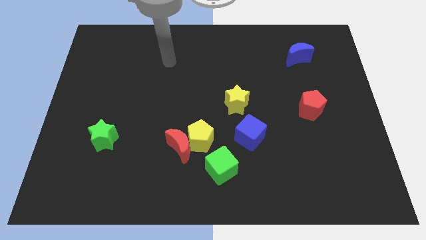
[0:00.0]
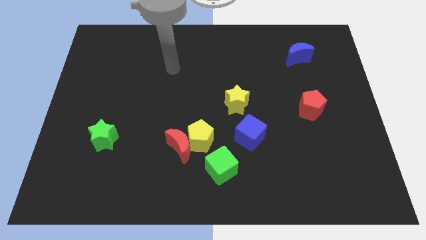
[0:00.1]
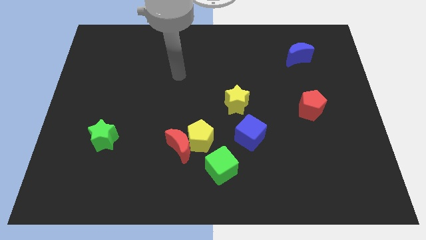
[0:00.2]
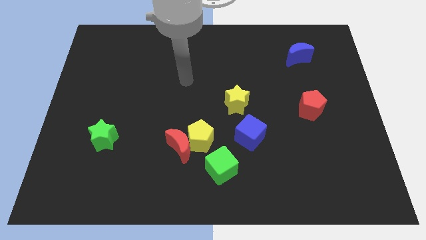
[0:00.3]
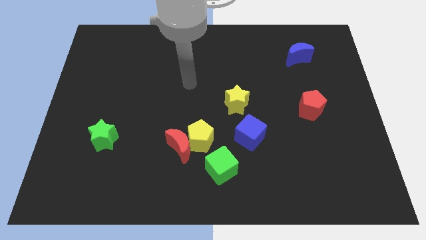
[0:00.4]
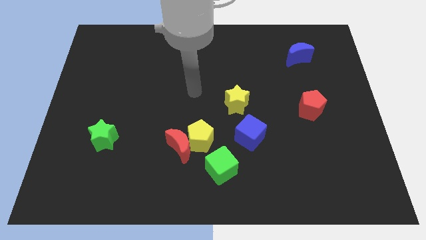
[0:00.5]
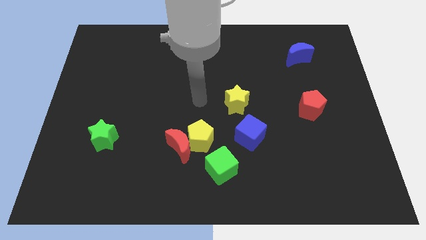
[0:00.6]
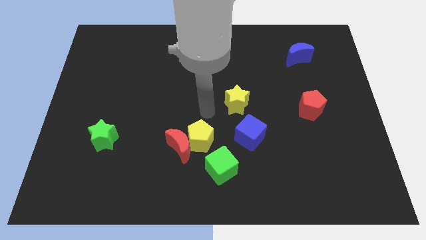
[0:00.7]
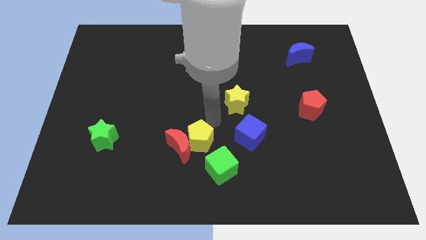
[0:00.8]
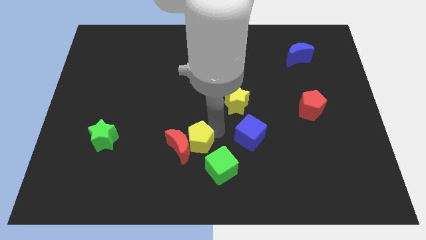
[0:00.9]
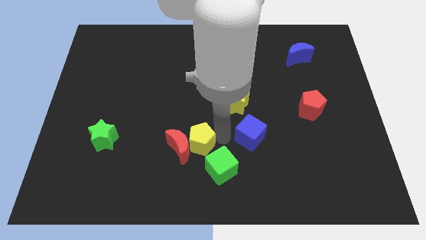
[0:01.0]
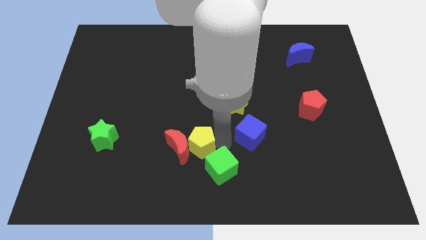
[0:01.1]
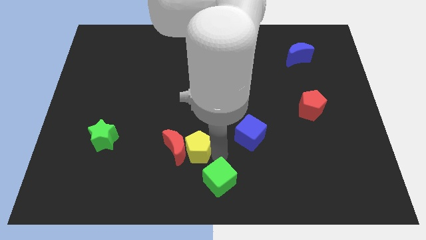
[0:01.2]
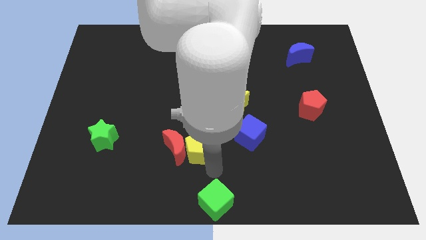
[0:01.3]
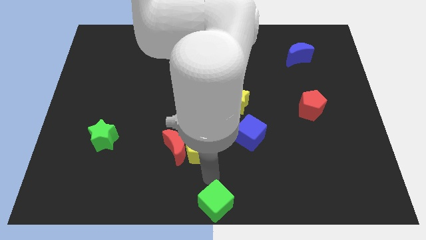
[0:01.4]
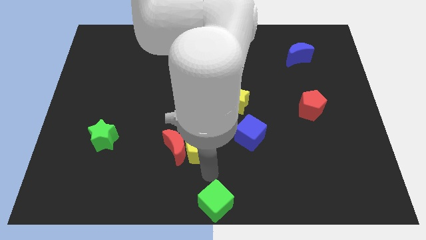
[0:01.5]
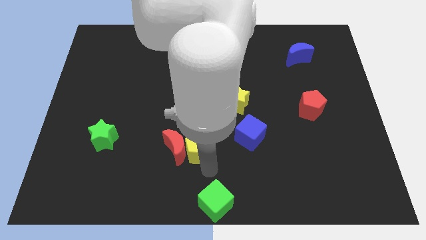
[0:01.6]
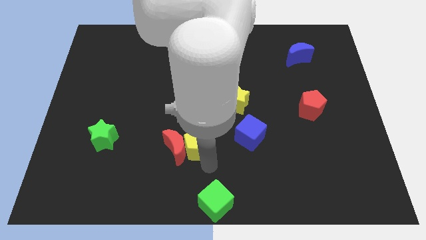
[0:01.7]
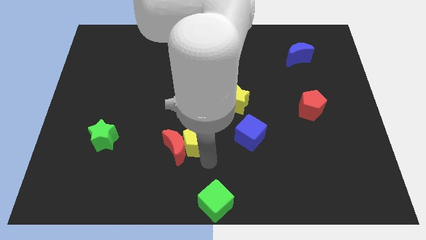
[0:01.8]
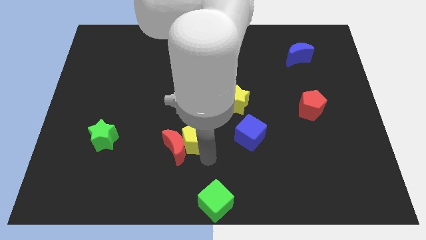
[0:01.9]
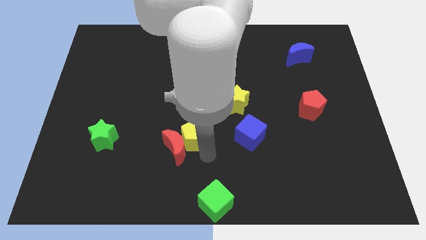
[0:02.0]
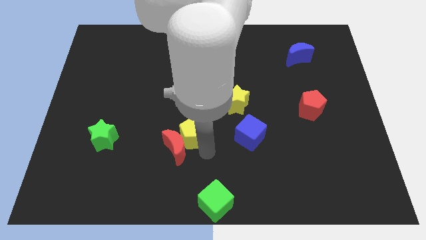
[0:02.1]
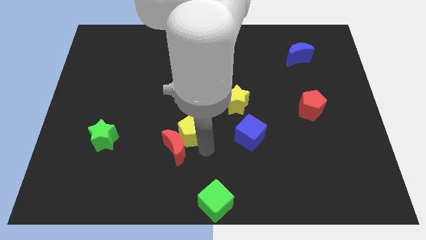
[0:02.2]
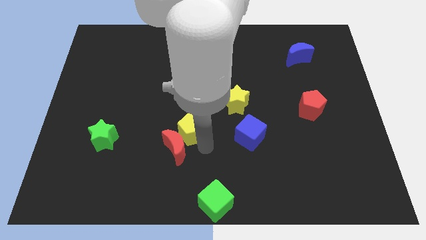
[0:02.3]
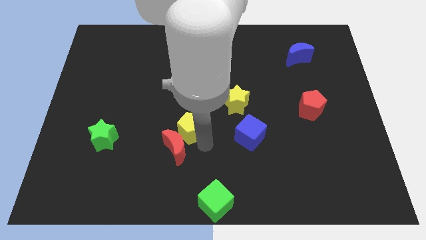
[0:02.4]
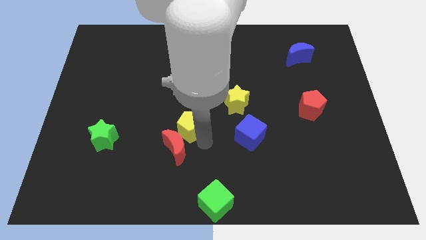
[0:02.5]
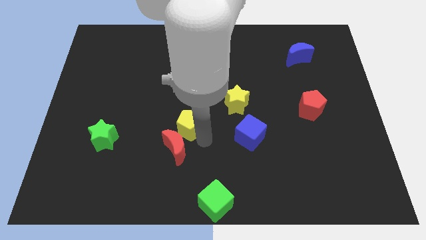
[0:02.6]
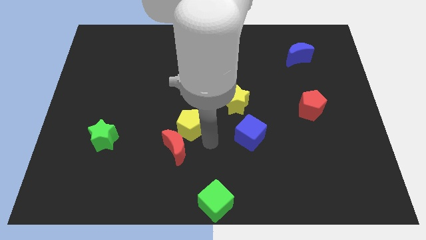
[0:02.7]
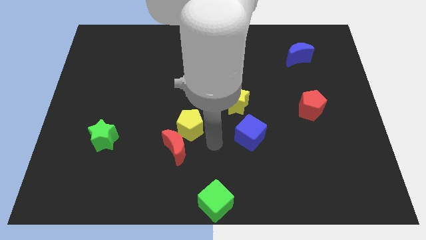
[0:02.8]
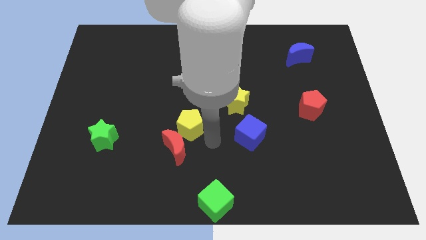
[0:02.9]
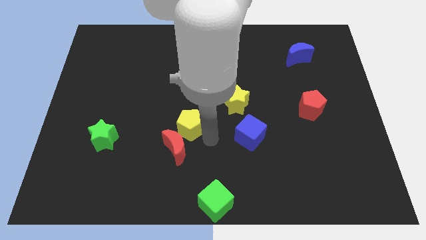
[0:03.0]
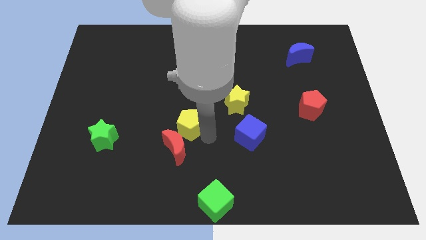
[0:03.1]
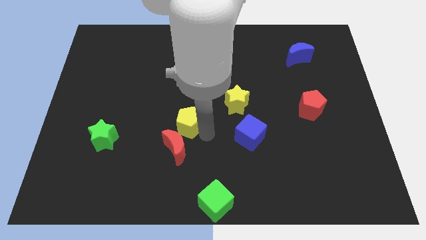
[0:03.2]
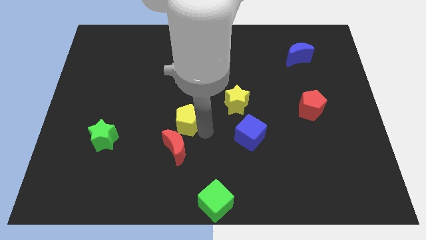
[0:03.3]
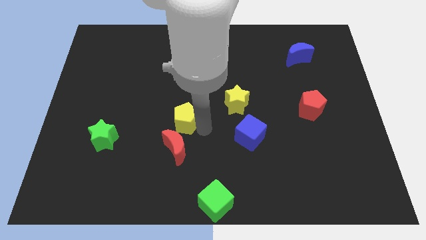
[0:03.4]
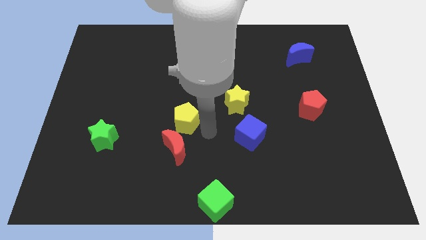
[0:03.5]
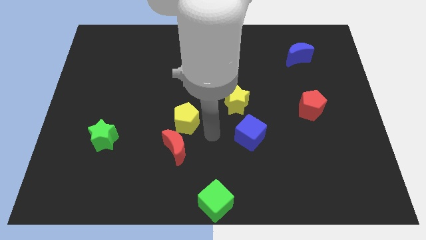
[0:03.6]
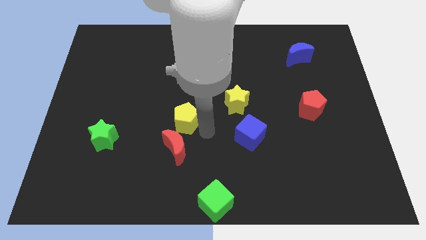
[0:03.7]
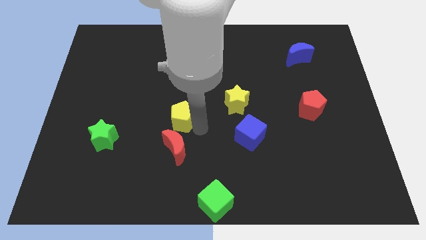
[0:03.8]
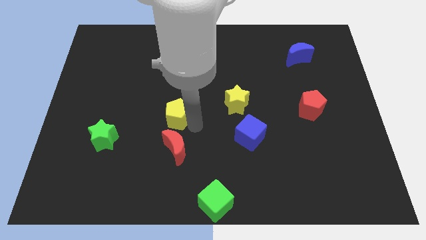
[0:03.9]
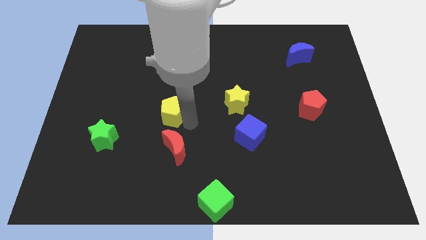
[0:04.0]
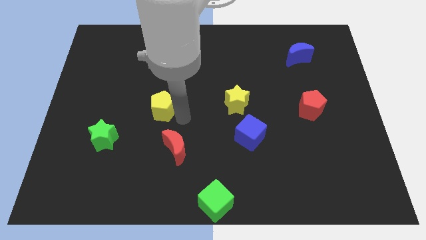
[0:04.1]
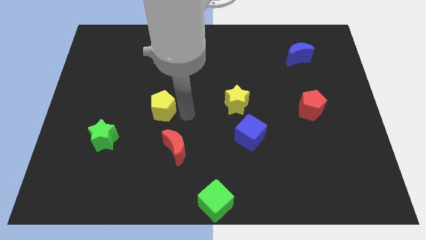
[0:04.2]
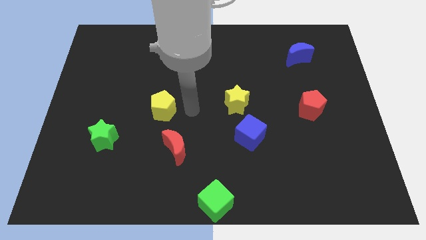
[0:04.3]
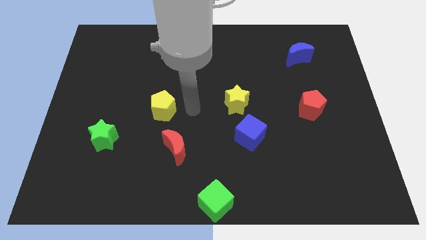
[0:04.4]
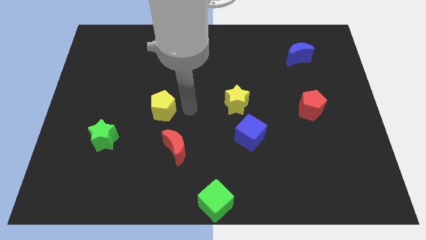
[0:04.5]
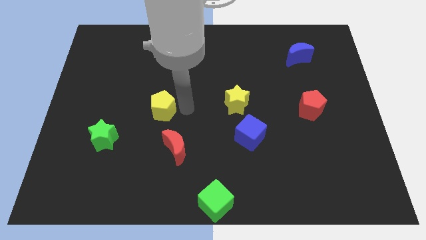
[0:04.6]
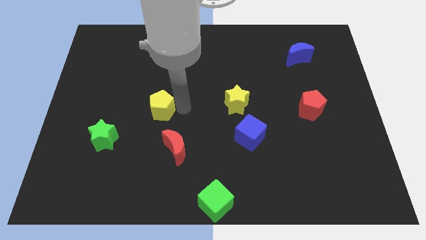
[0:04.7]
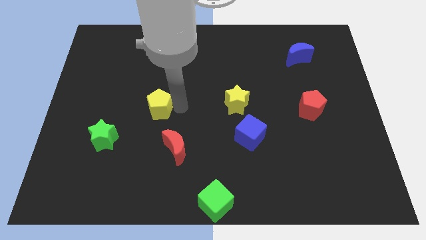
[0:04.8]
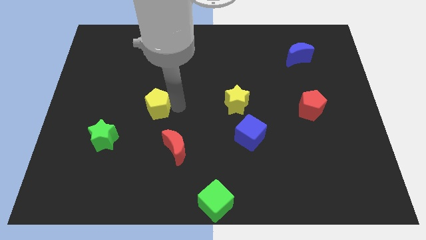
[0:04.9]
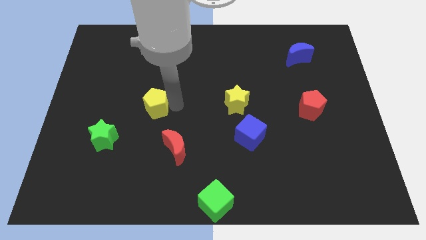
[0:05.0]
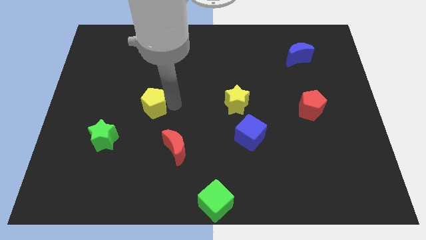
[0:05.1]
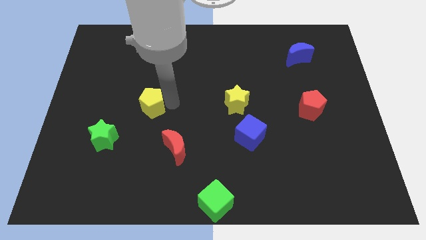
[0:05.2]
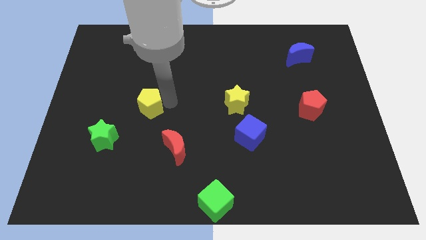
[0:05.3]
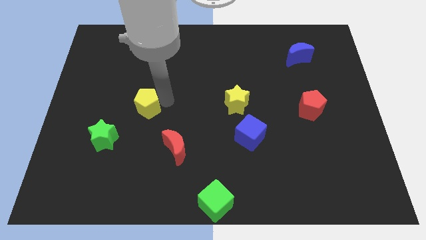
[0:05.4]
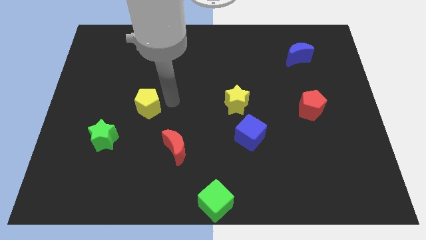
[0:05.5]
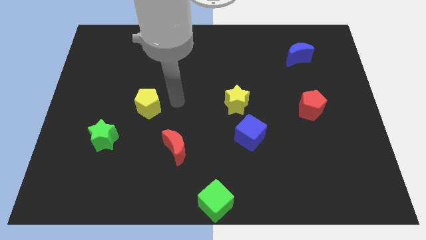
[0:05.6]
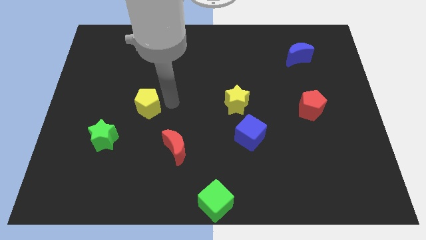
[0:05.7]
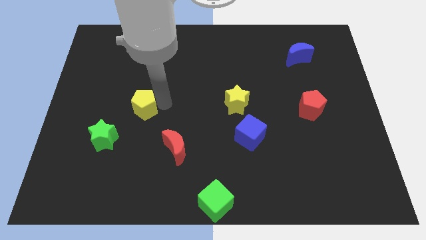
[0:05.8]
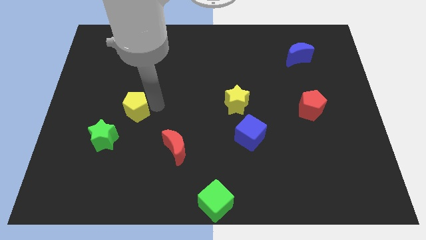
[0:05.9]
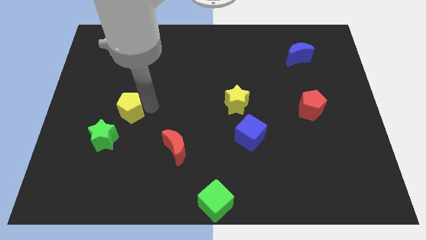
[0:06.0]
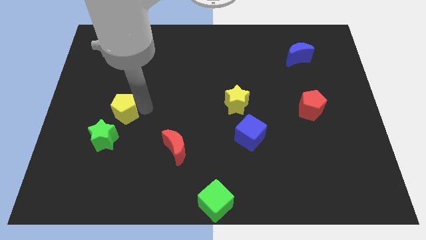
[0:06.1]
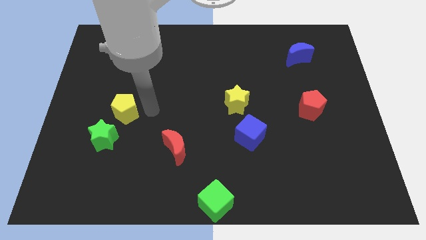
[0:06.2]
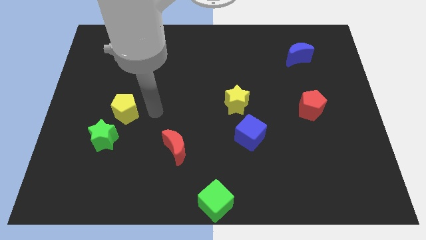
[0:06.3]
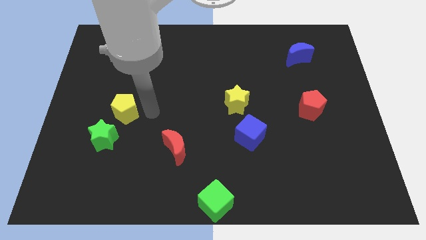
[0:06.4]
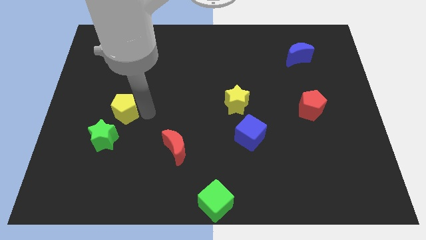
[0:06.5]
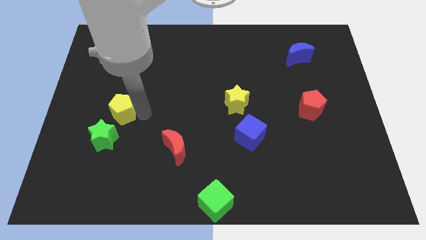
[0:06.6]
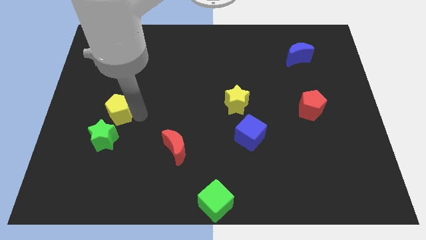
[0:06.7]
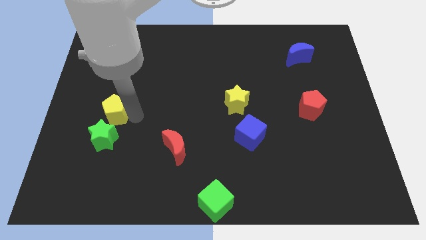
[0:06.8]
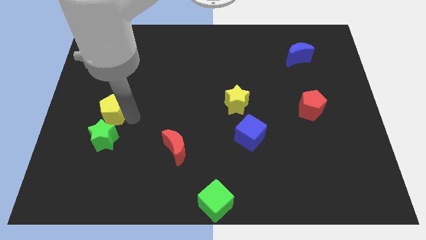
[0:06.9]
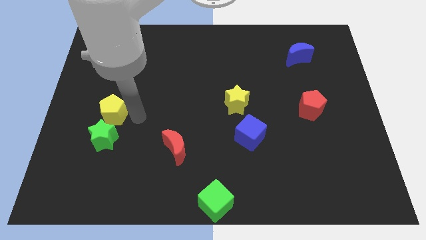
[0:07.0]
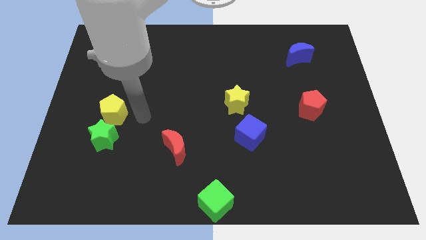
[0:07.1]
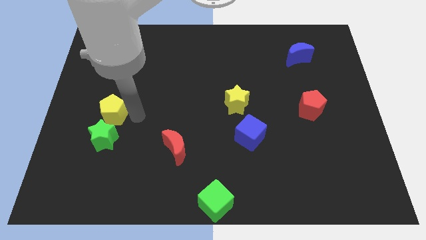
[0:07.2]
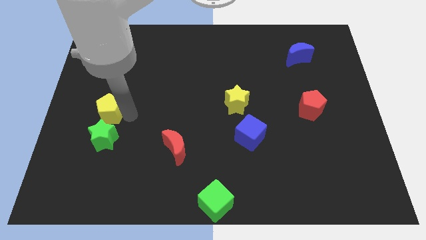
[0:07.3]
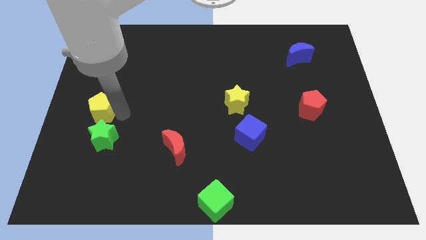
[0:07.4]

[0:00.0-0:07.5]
push the yellow pentagon to the left side of the board
